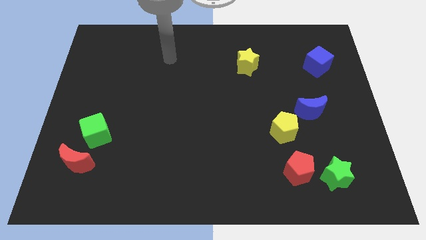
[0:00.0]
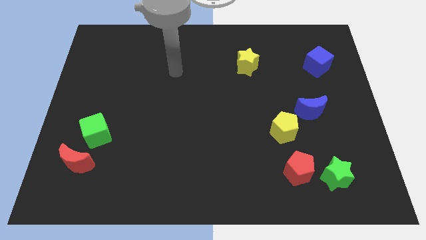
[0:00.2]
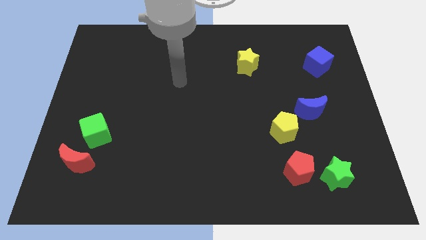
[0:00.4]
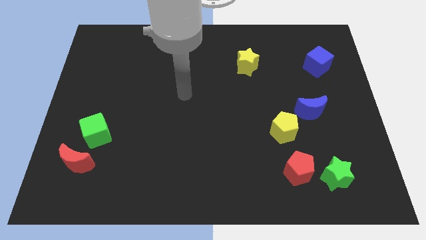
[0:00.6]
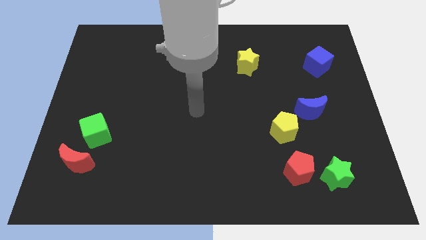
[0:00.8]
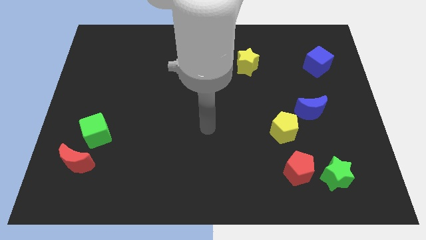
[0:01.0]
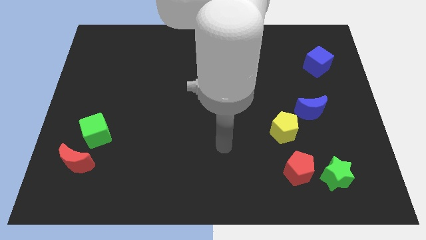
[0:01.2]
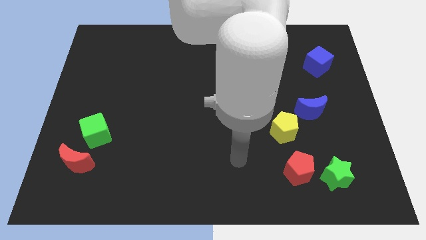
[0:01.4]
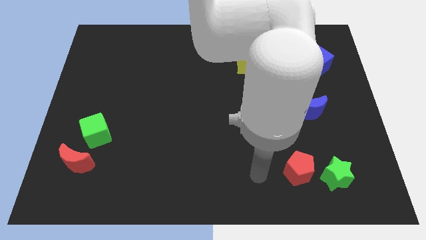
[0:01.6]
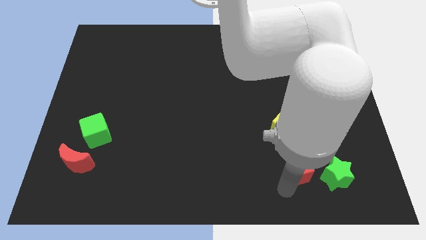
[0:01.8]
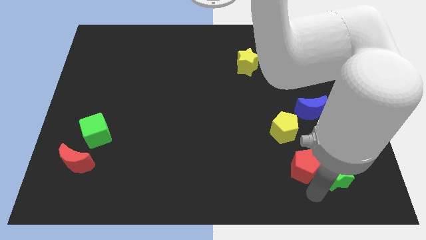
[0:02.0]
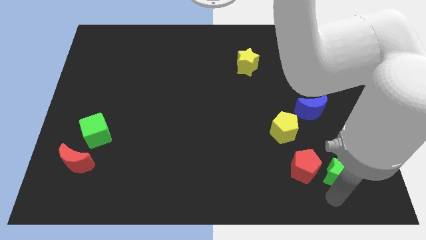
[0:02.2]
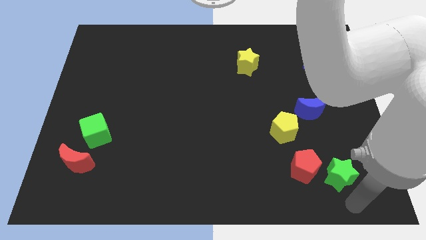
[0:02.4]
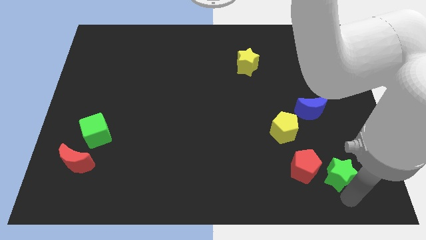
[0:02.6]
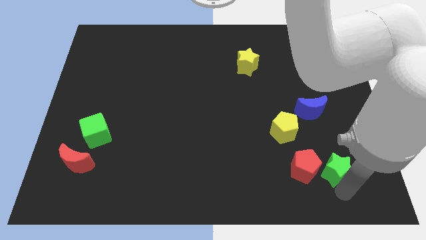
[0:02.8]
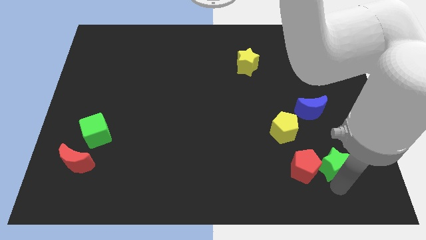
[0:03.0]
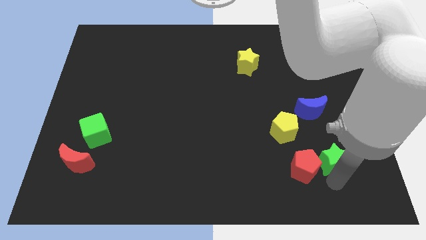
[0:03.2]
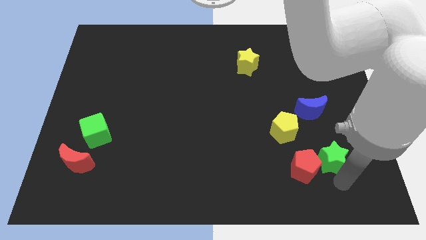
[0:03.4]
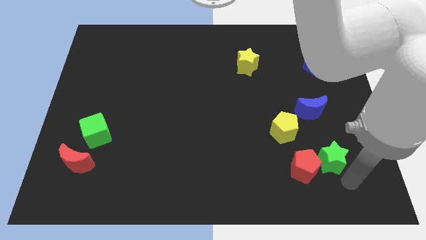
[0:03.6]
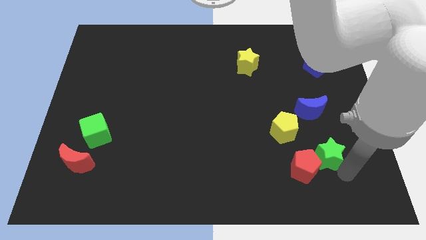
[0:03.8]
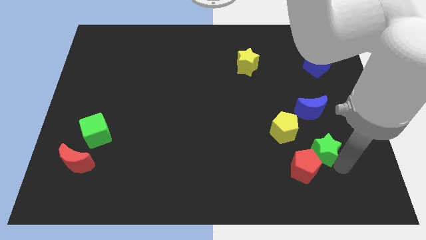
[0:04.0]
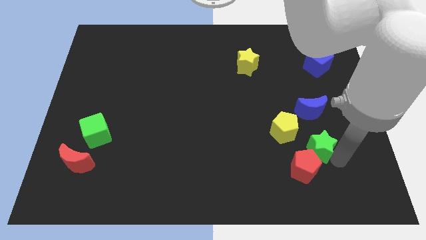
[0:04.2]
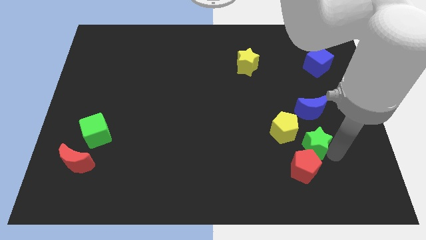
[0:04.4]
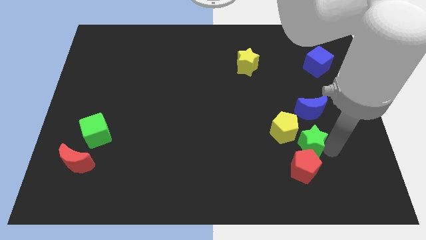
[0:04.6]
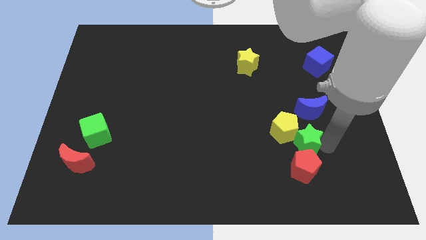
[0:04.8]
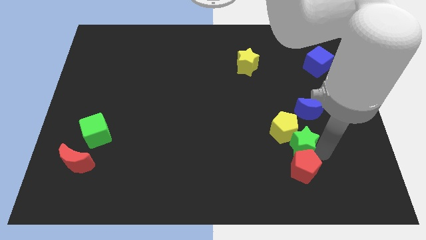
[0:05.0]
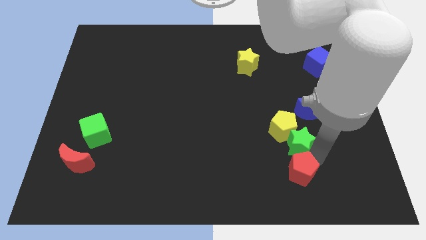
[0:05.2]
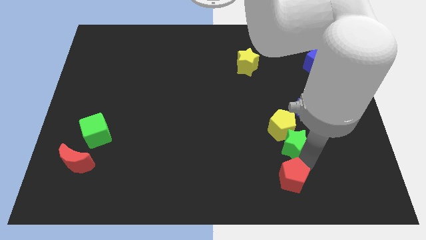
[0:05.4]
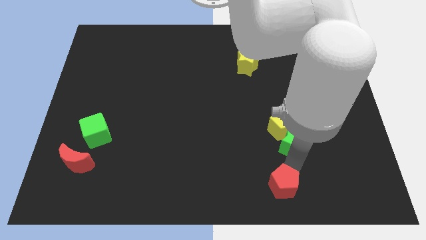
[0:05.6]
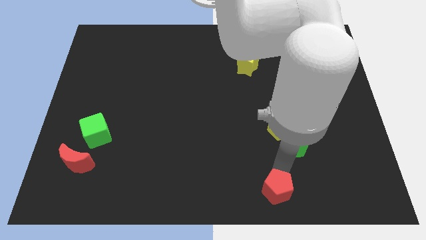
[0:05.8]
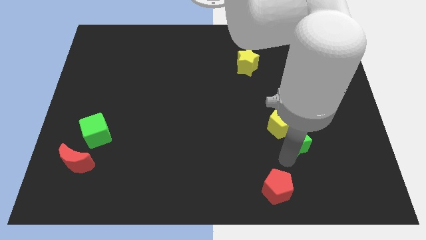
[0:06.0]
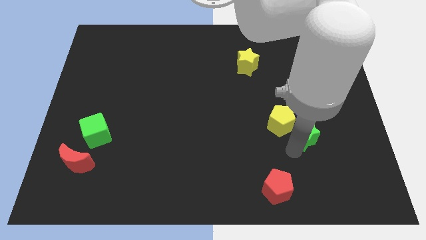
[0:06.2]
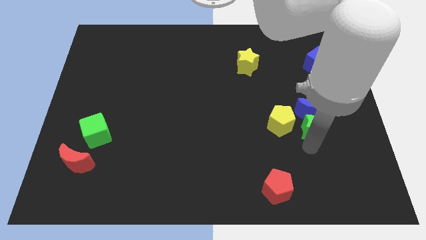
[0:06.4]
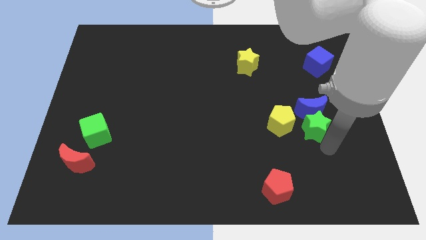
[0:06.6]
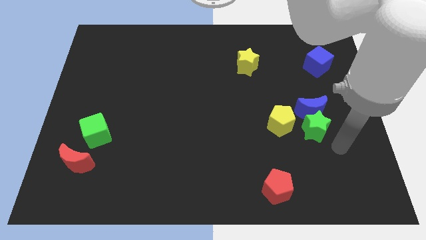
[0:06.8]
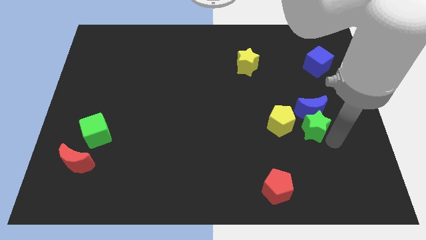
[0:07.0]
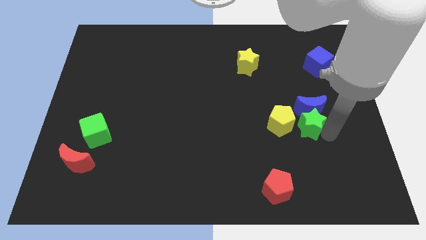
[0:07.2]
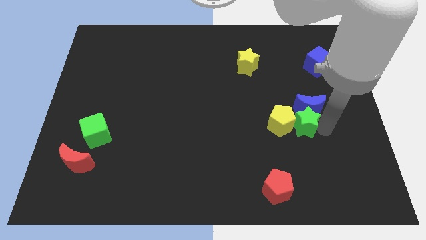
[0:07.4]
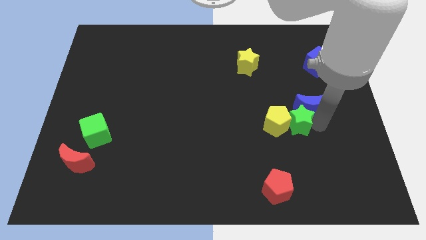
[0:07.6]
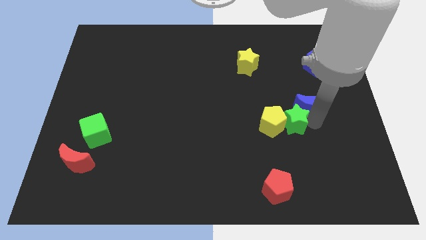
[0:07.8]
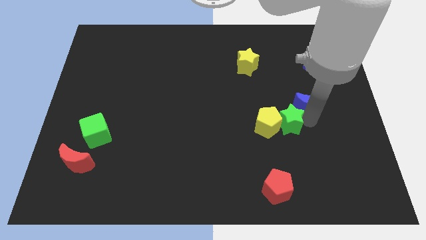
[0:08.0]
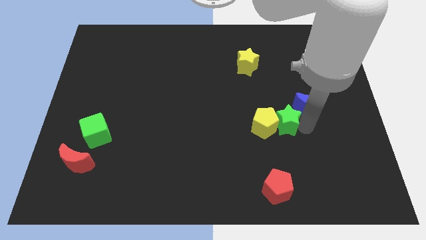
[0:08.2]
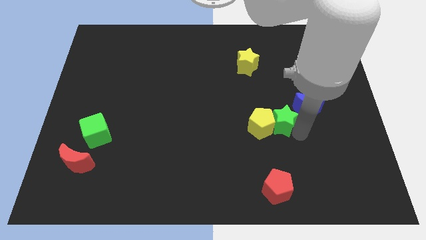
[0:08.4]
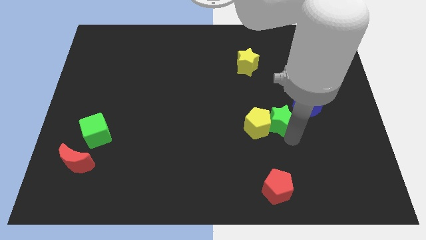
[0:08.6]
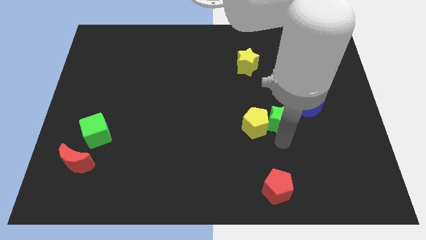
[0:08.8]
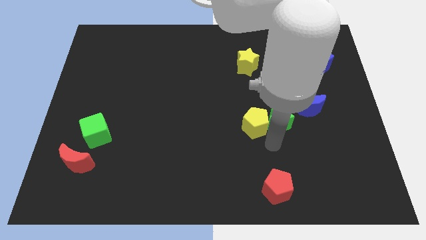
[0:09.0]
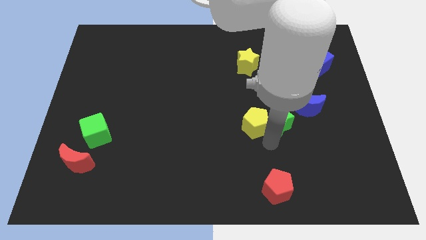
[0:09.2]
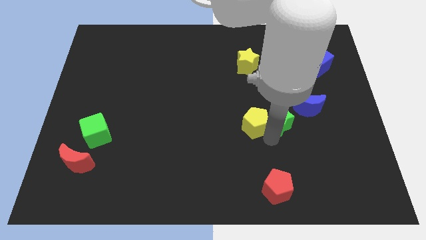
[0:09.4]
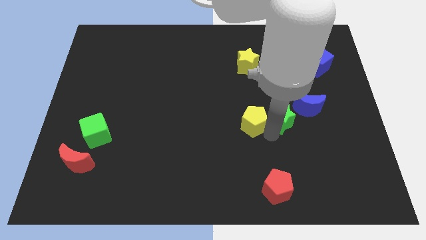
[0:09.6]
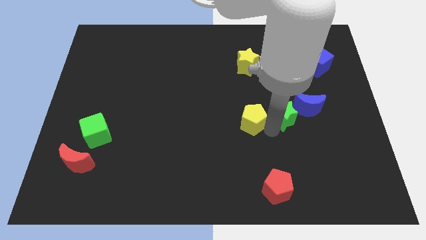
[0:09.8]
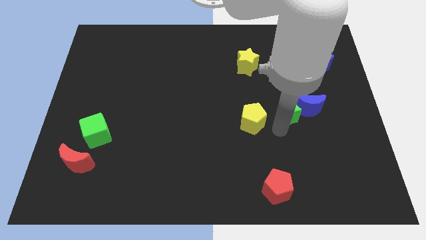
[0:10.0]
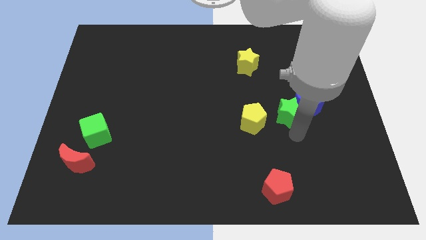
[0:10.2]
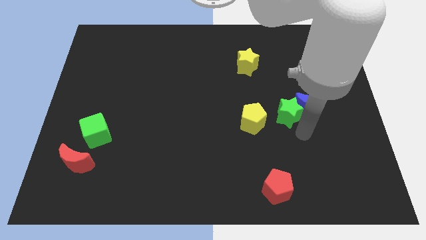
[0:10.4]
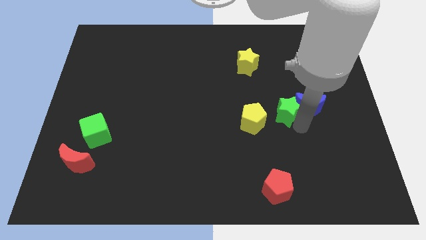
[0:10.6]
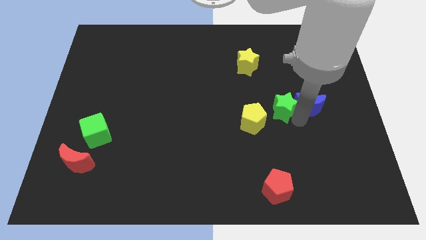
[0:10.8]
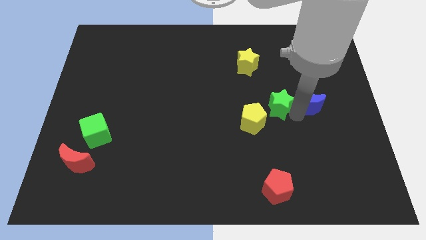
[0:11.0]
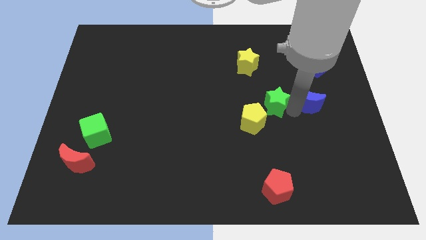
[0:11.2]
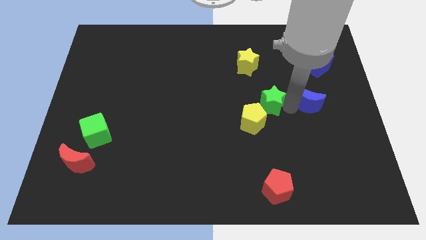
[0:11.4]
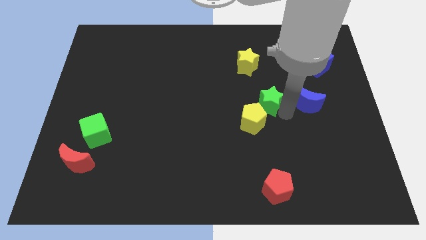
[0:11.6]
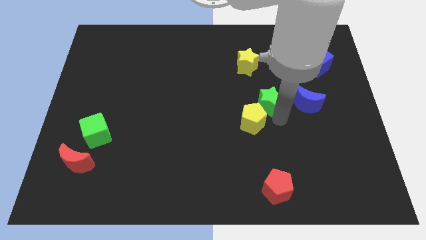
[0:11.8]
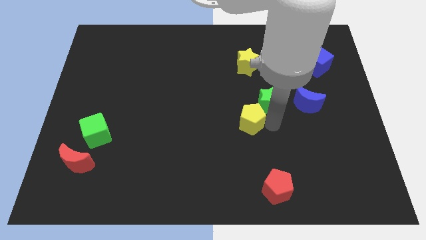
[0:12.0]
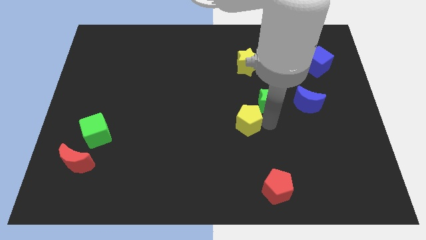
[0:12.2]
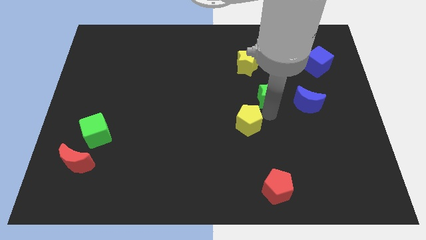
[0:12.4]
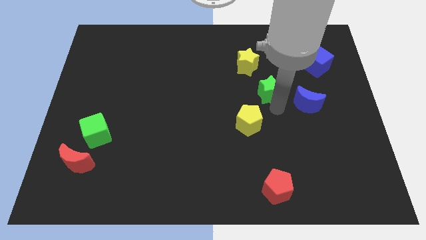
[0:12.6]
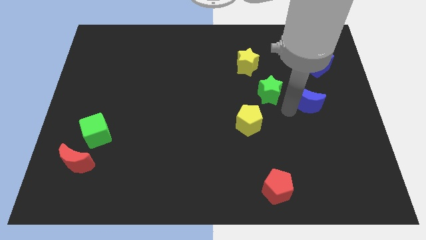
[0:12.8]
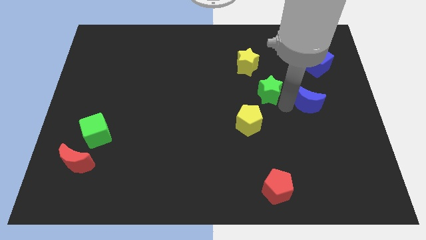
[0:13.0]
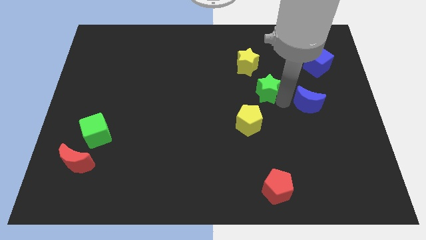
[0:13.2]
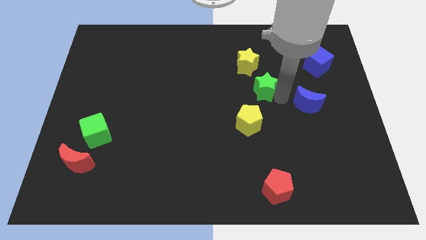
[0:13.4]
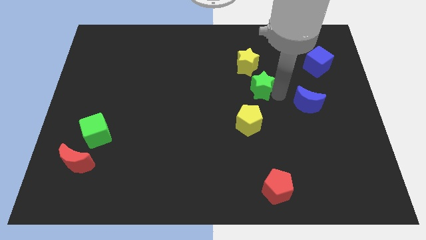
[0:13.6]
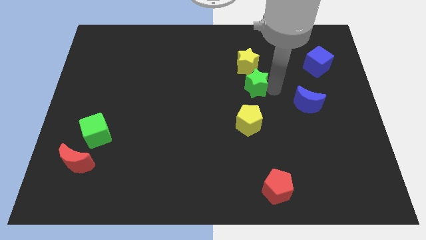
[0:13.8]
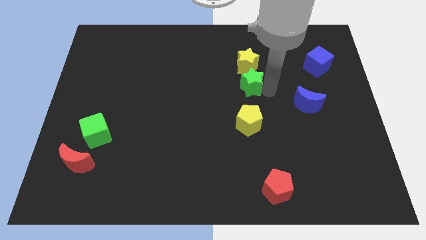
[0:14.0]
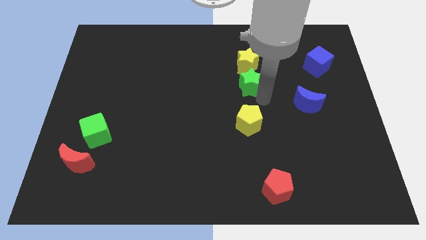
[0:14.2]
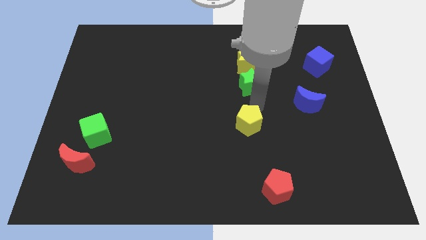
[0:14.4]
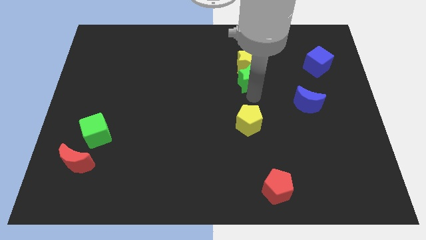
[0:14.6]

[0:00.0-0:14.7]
move the green star close to the yellow star

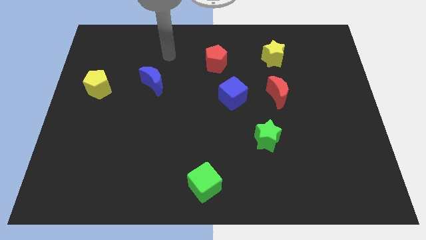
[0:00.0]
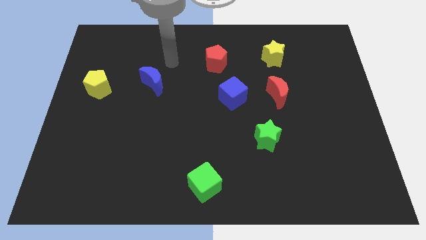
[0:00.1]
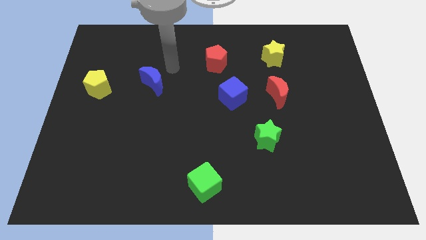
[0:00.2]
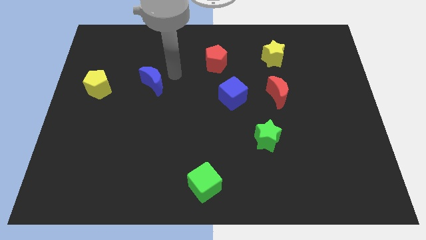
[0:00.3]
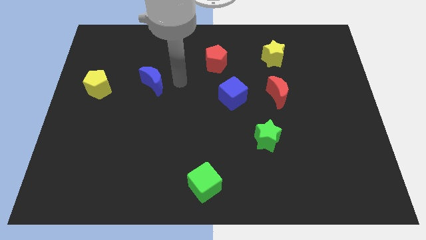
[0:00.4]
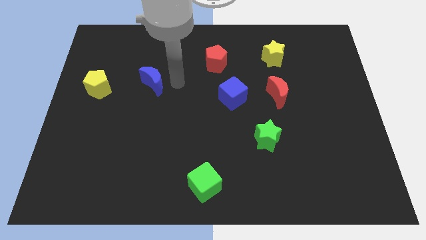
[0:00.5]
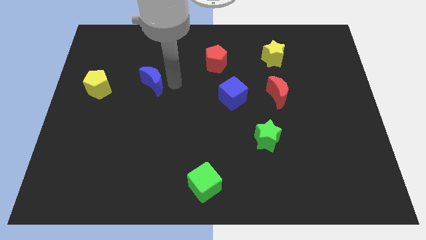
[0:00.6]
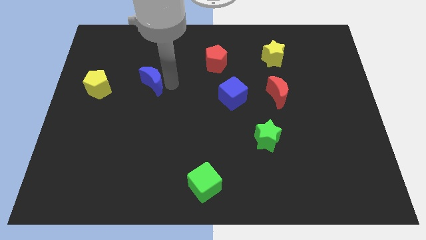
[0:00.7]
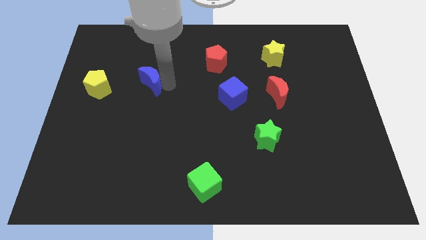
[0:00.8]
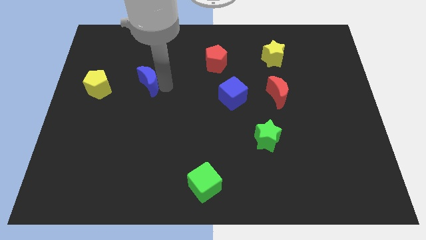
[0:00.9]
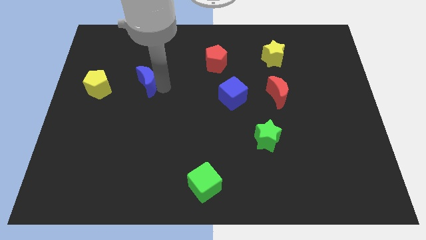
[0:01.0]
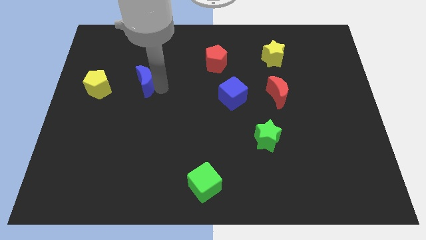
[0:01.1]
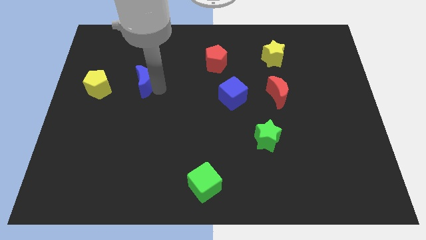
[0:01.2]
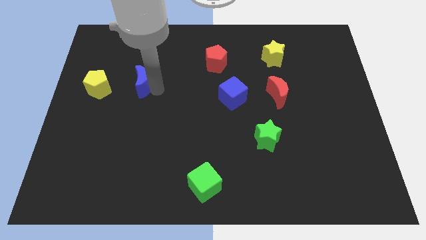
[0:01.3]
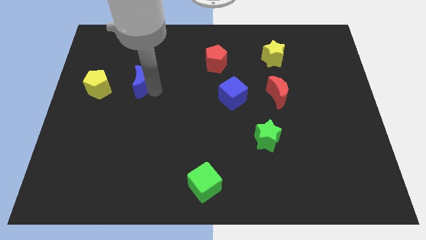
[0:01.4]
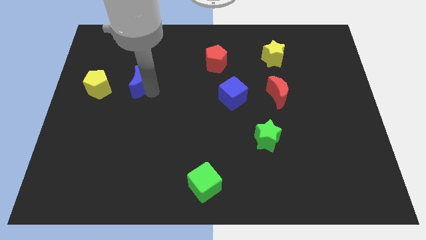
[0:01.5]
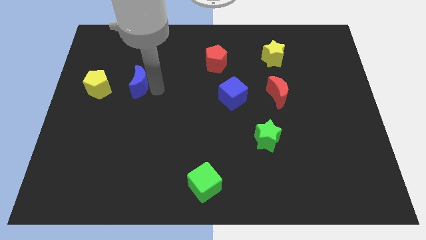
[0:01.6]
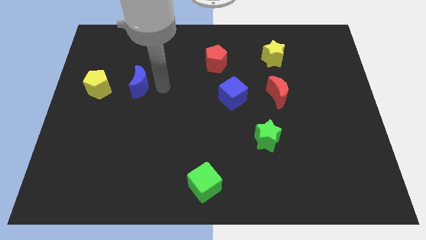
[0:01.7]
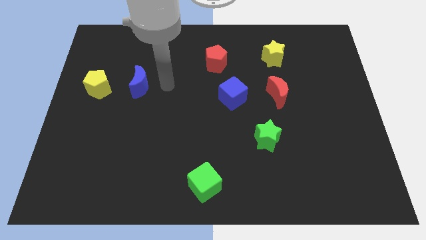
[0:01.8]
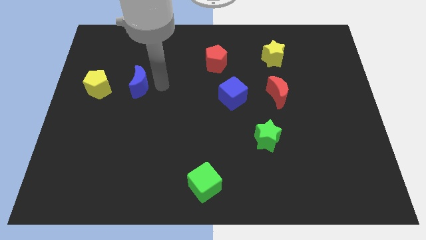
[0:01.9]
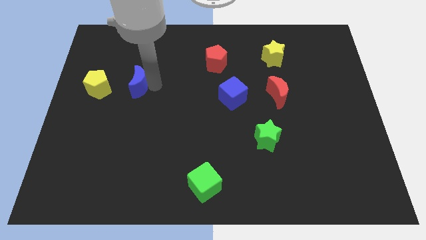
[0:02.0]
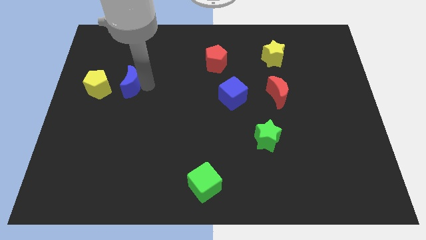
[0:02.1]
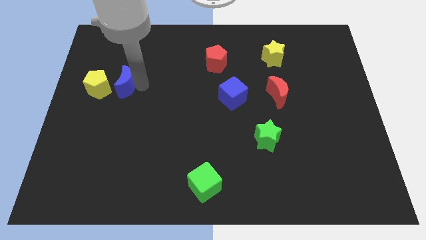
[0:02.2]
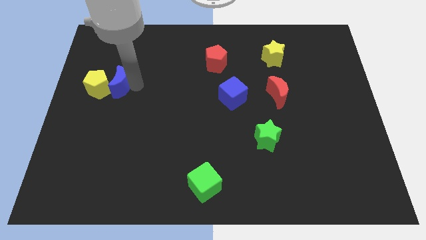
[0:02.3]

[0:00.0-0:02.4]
push the blue moon close to the yellow pentagon
